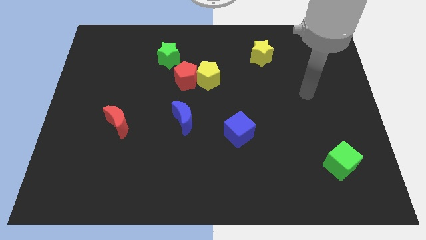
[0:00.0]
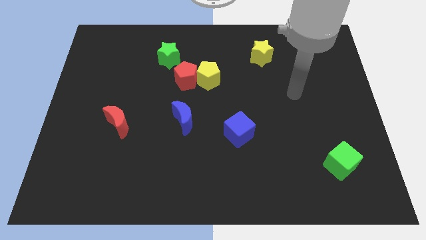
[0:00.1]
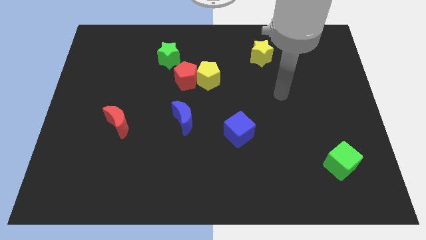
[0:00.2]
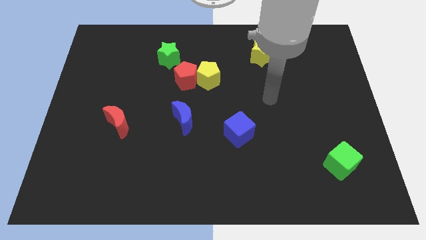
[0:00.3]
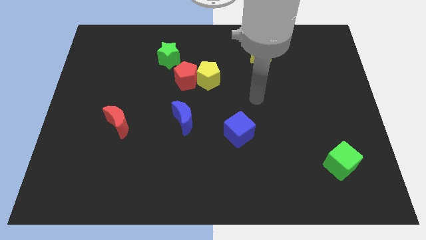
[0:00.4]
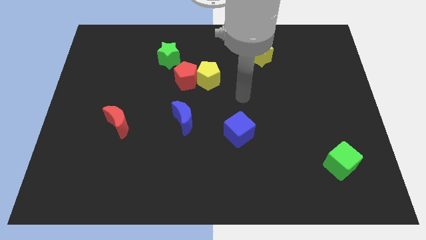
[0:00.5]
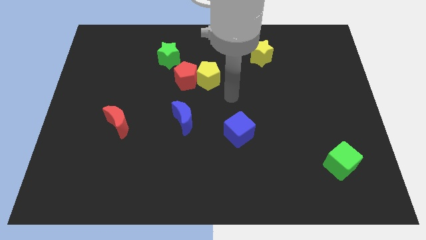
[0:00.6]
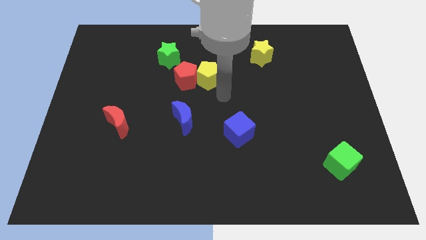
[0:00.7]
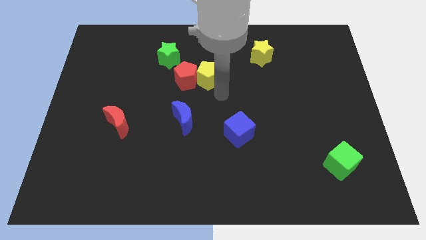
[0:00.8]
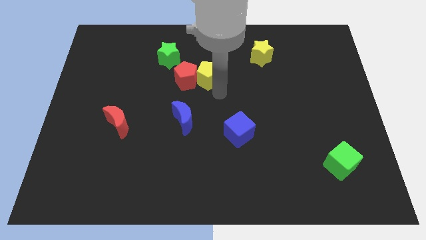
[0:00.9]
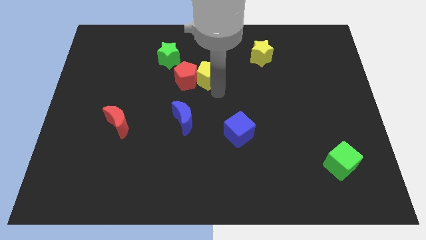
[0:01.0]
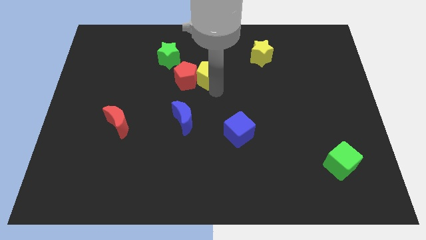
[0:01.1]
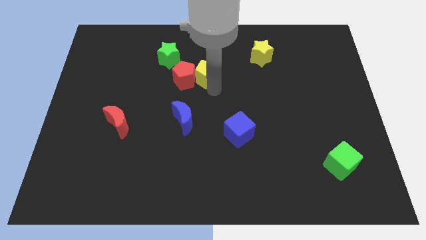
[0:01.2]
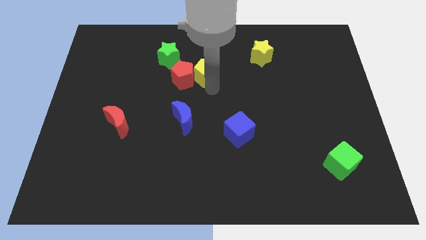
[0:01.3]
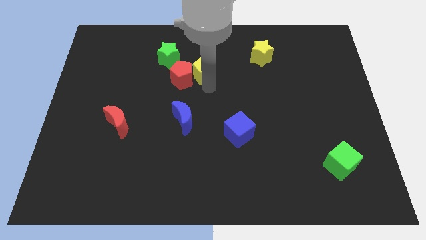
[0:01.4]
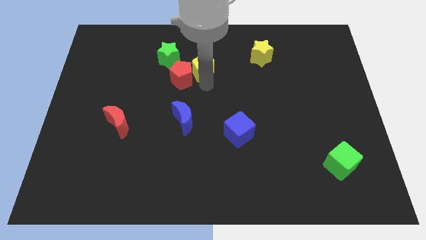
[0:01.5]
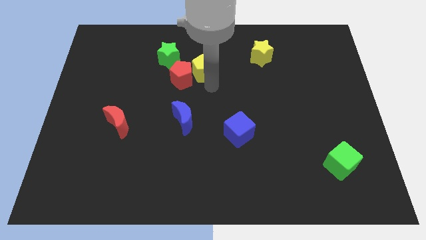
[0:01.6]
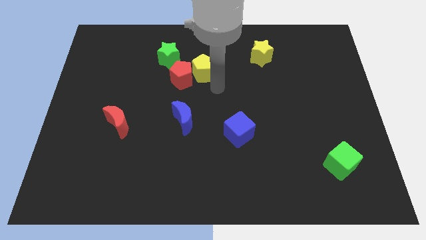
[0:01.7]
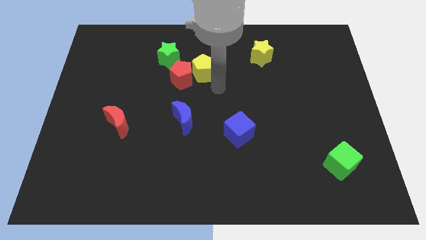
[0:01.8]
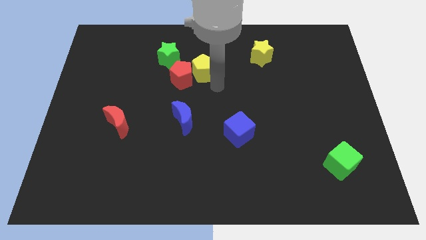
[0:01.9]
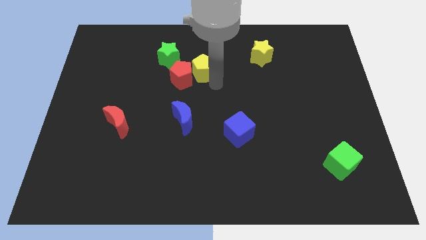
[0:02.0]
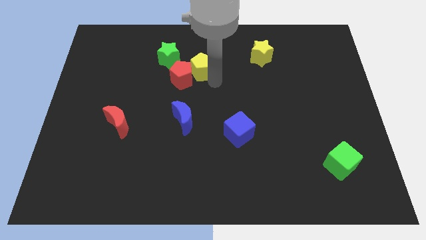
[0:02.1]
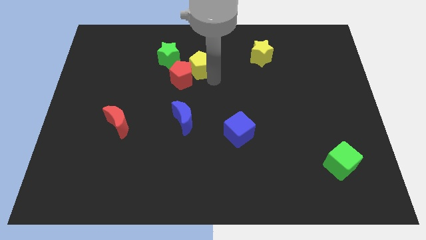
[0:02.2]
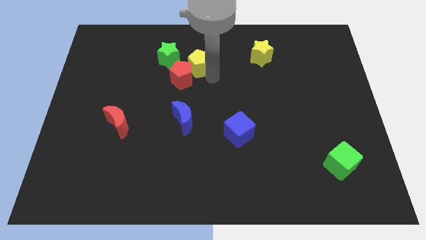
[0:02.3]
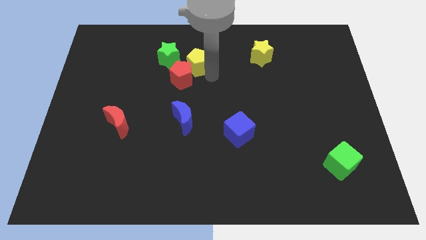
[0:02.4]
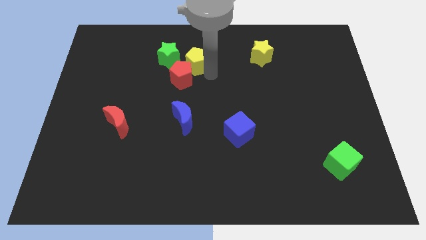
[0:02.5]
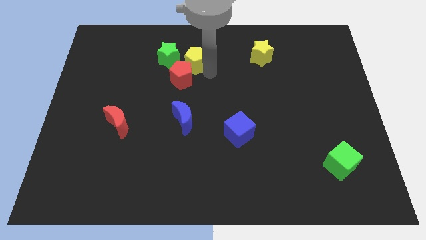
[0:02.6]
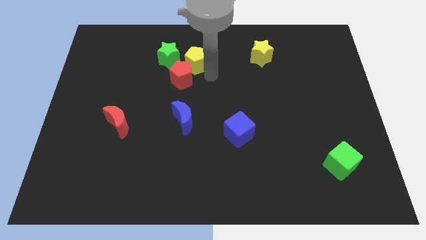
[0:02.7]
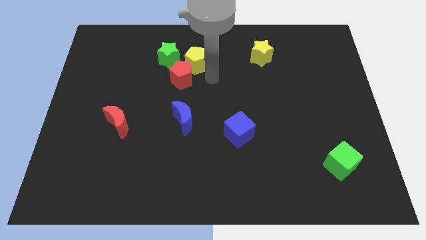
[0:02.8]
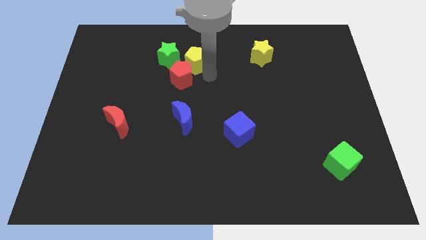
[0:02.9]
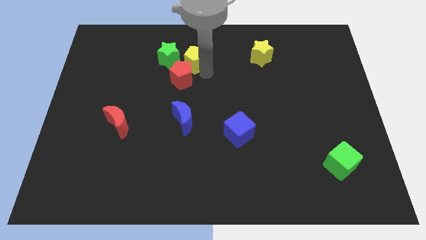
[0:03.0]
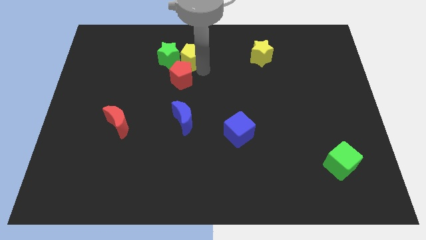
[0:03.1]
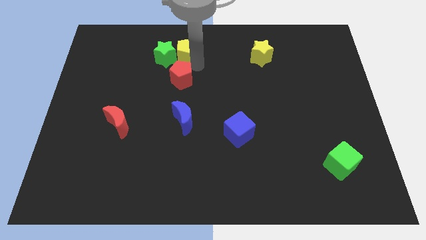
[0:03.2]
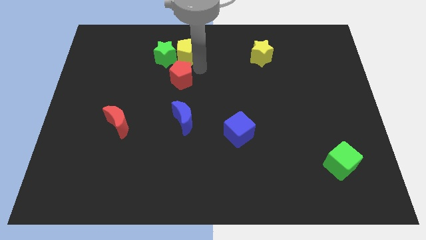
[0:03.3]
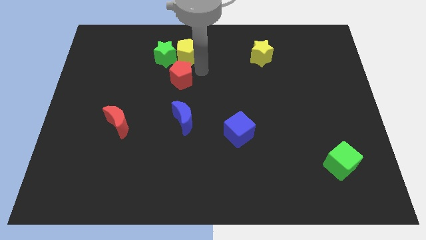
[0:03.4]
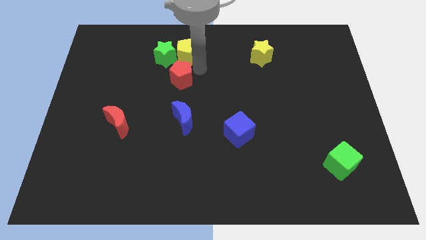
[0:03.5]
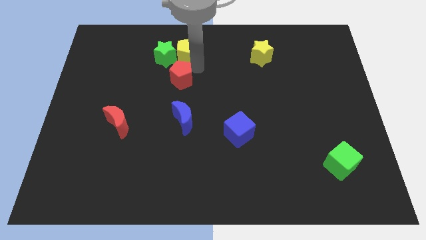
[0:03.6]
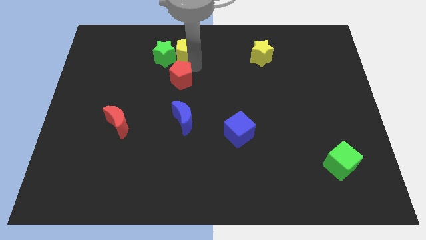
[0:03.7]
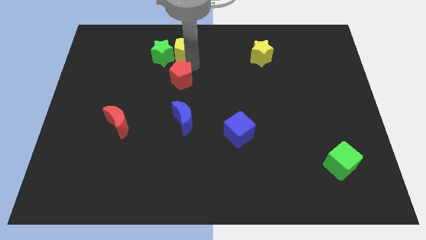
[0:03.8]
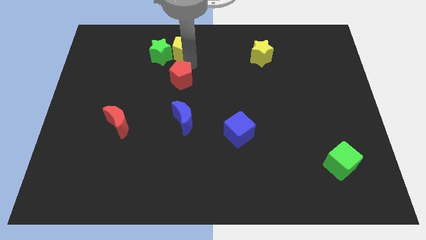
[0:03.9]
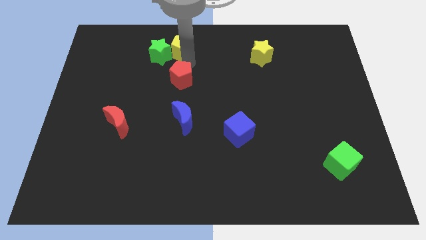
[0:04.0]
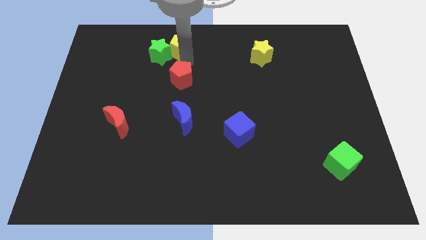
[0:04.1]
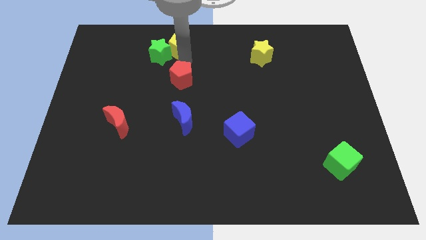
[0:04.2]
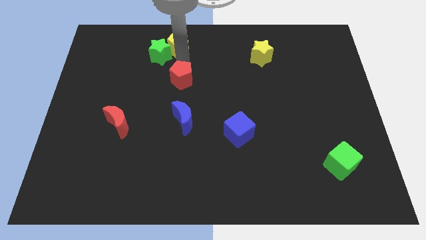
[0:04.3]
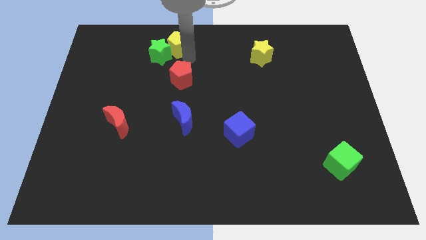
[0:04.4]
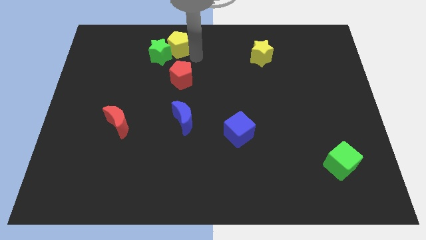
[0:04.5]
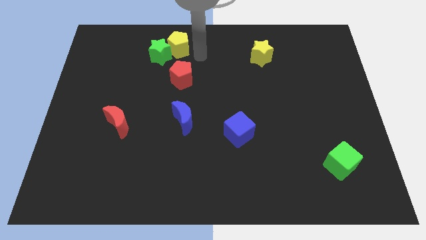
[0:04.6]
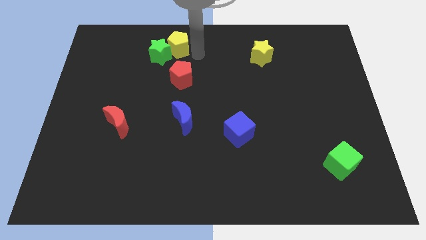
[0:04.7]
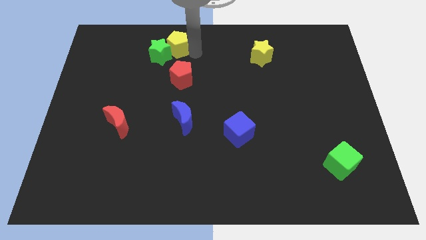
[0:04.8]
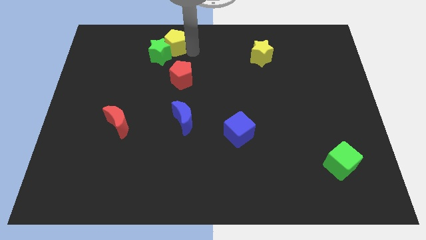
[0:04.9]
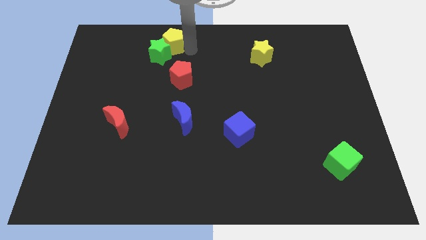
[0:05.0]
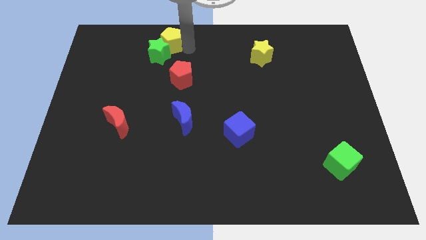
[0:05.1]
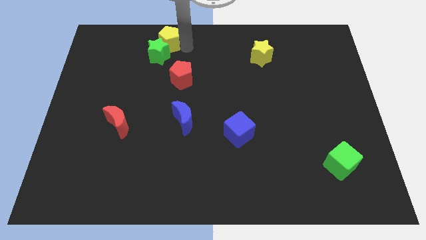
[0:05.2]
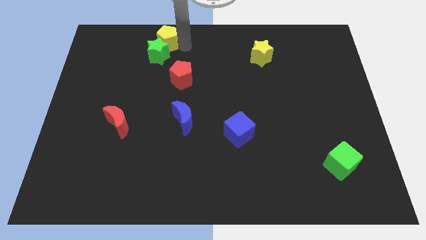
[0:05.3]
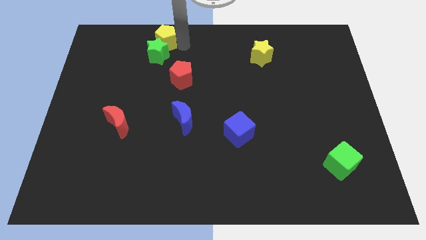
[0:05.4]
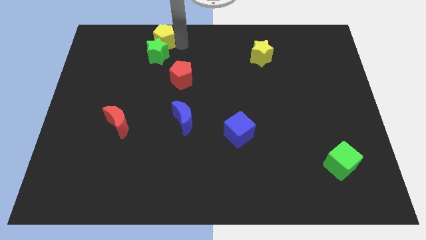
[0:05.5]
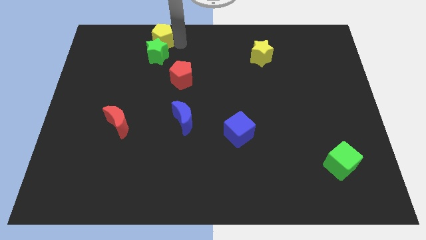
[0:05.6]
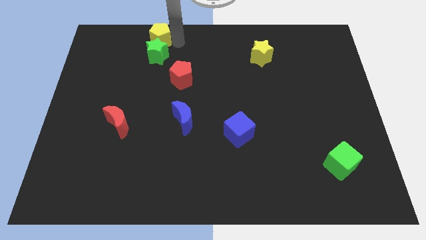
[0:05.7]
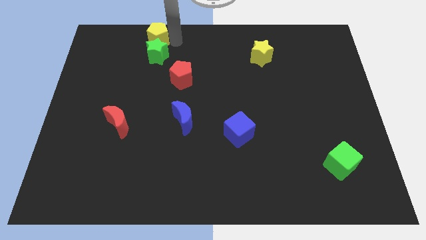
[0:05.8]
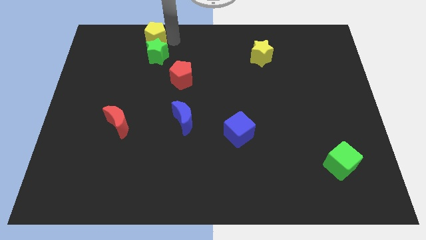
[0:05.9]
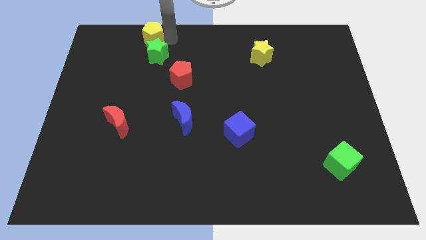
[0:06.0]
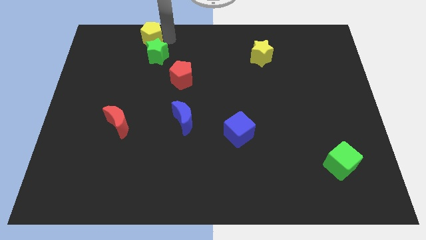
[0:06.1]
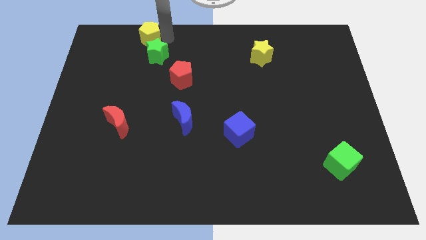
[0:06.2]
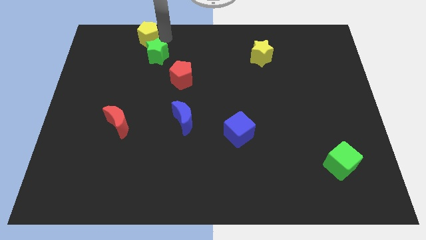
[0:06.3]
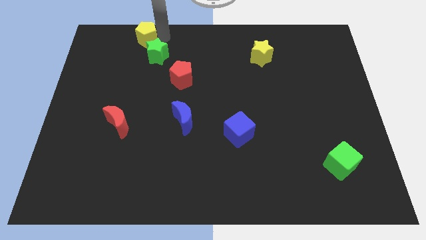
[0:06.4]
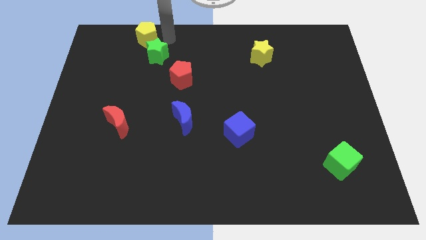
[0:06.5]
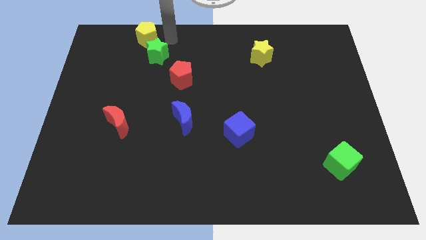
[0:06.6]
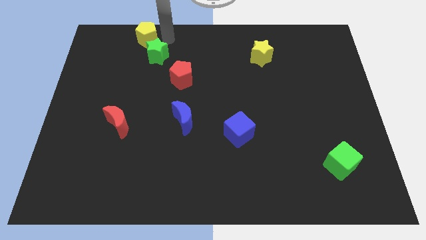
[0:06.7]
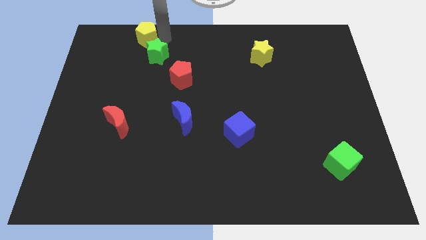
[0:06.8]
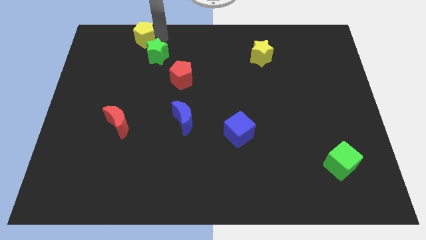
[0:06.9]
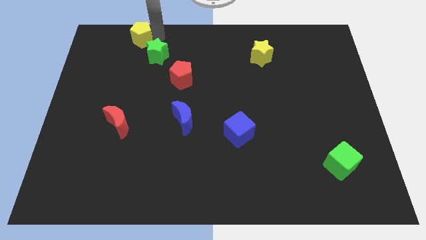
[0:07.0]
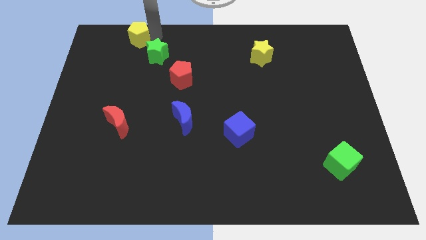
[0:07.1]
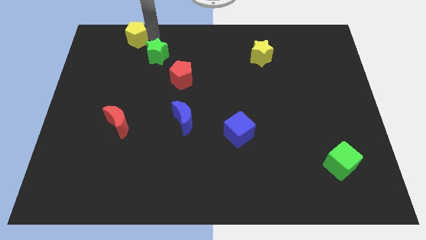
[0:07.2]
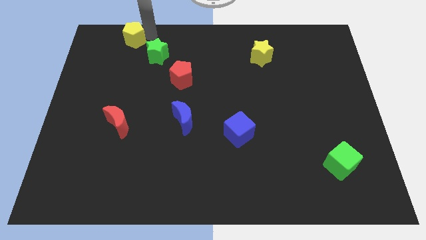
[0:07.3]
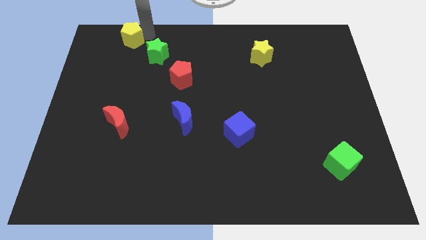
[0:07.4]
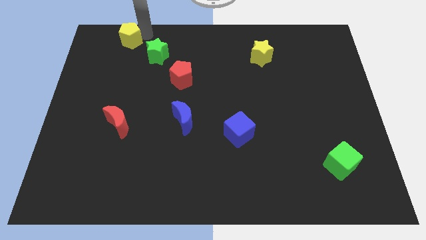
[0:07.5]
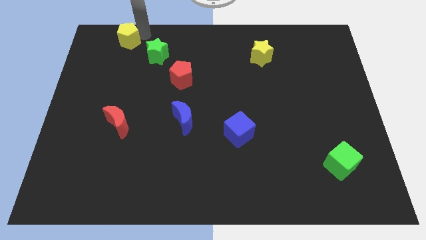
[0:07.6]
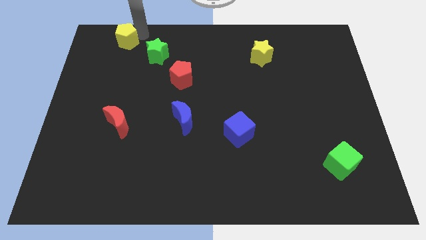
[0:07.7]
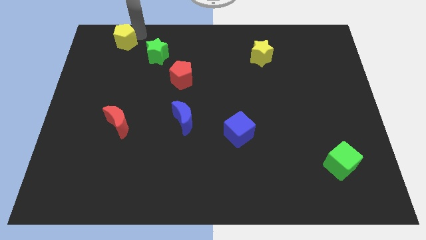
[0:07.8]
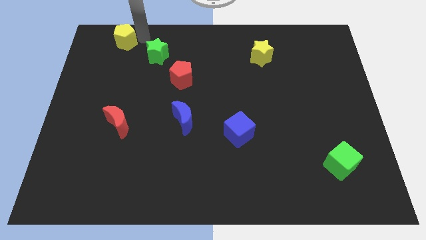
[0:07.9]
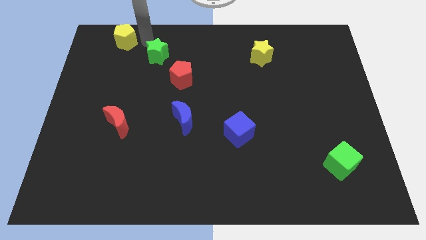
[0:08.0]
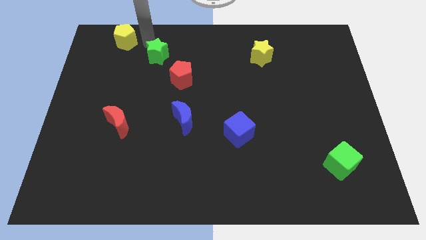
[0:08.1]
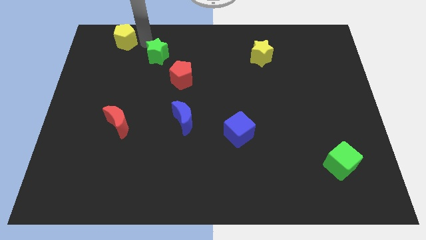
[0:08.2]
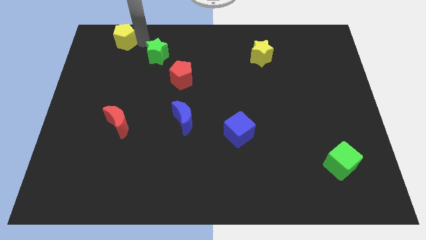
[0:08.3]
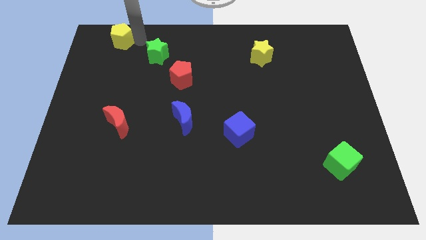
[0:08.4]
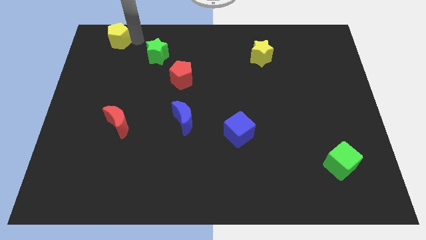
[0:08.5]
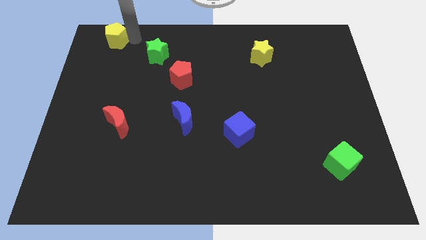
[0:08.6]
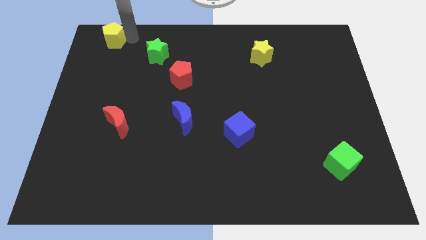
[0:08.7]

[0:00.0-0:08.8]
put the yellow pentagon to the top left
